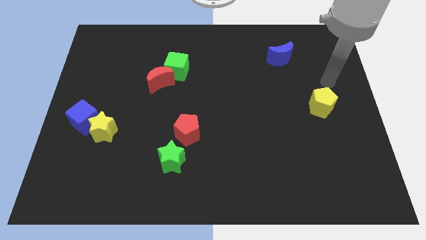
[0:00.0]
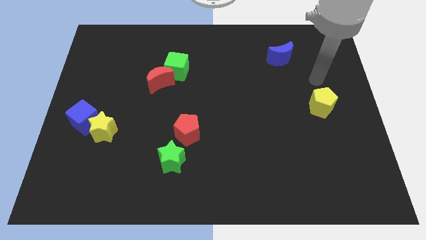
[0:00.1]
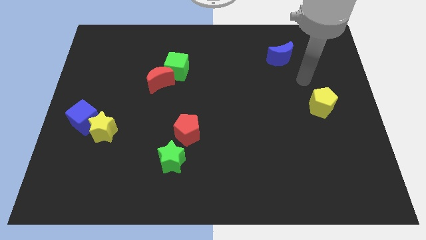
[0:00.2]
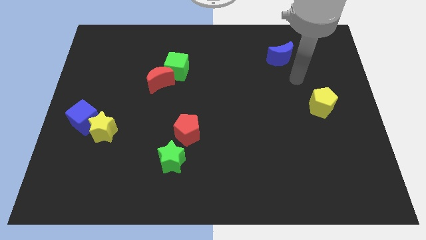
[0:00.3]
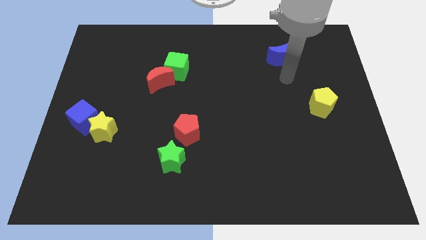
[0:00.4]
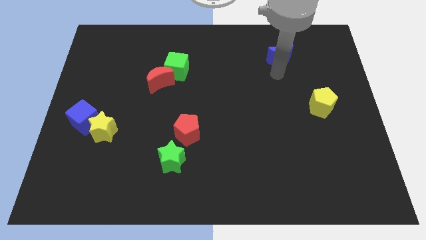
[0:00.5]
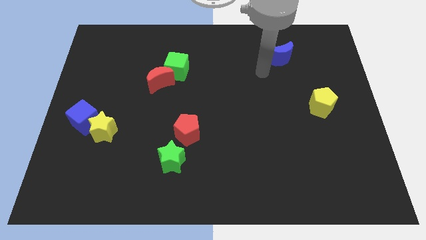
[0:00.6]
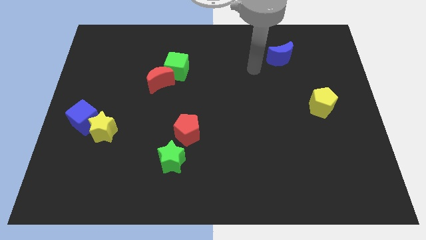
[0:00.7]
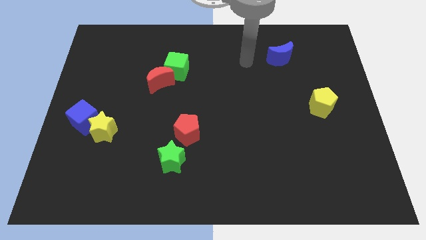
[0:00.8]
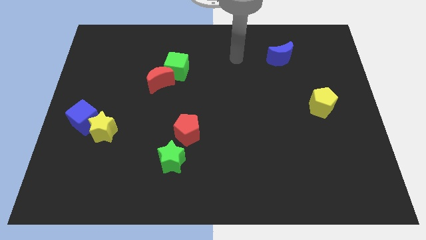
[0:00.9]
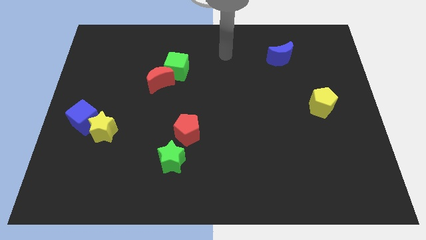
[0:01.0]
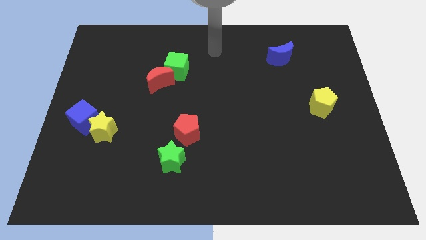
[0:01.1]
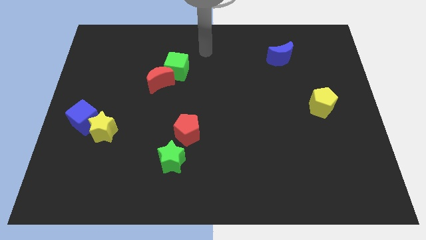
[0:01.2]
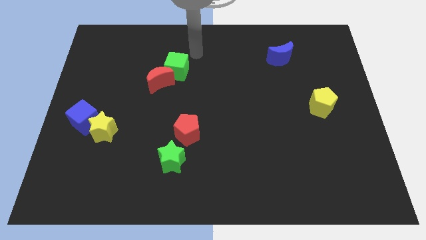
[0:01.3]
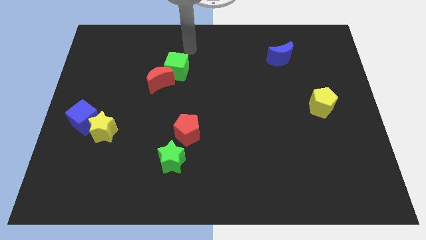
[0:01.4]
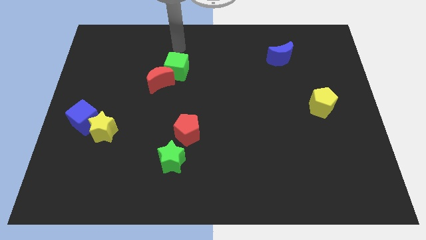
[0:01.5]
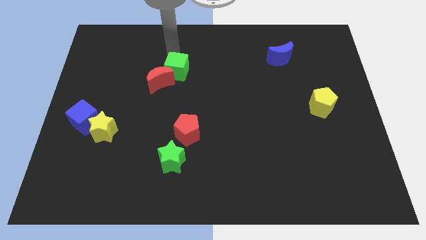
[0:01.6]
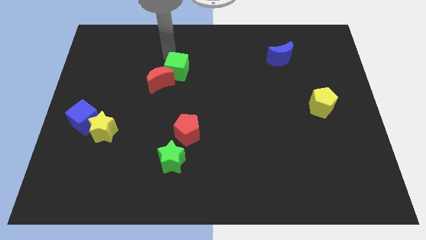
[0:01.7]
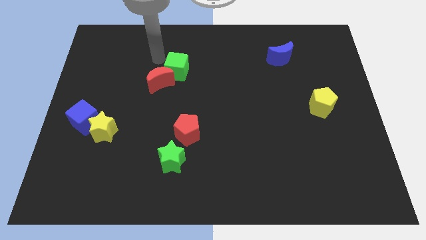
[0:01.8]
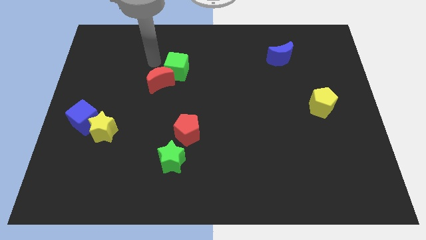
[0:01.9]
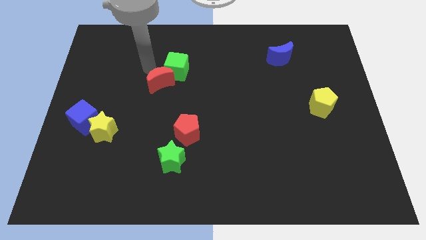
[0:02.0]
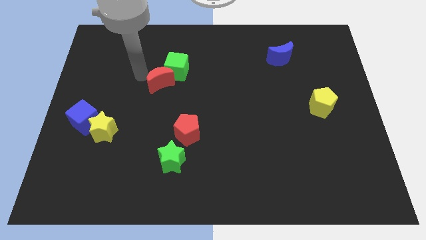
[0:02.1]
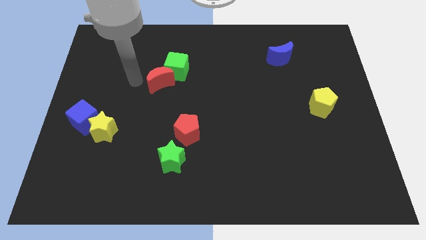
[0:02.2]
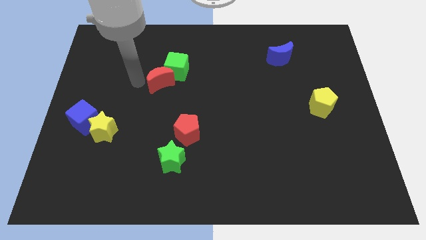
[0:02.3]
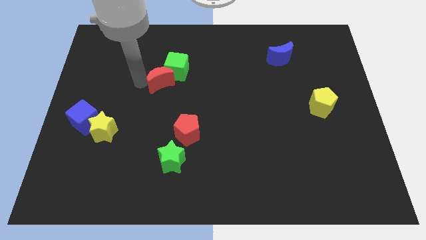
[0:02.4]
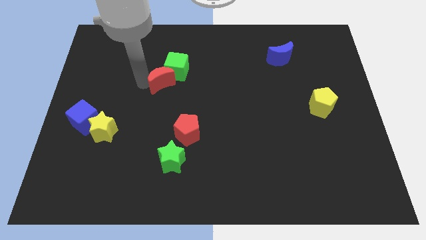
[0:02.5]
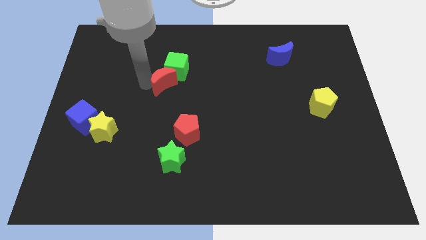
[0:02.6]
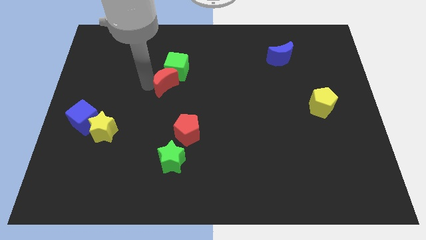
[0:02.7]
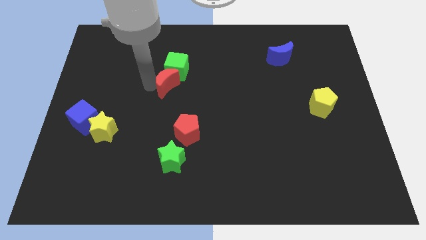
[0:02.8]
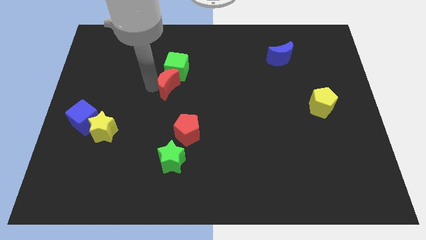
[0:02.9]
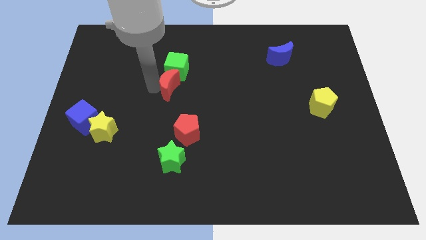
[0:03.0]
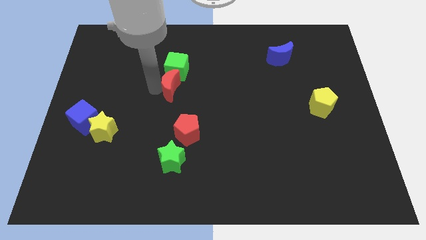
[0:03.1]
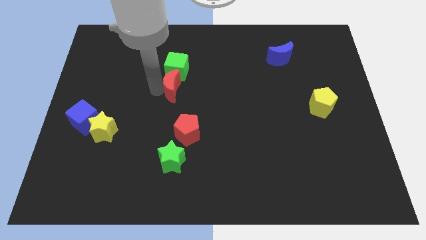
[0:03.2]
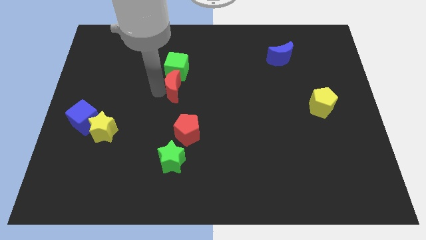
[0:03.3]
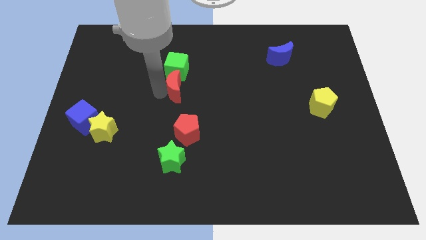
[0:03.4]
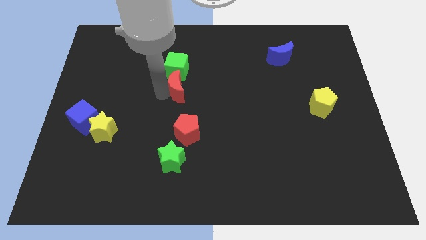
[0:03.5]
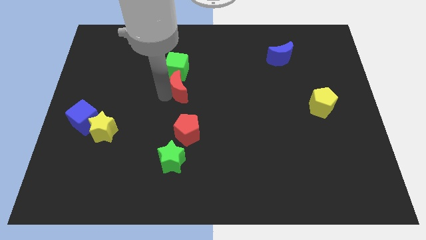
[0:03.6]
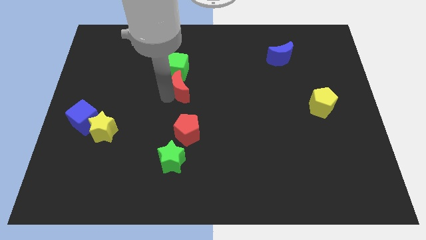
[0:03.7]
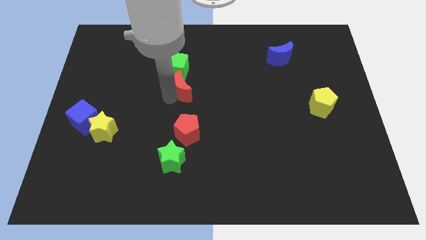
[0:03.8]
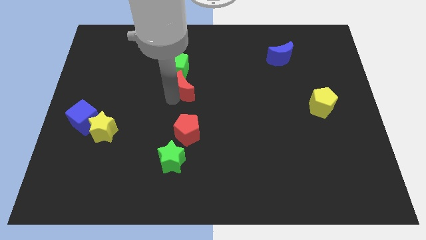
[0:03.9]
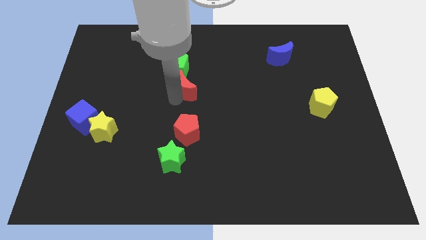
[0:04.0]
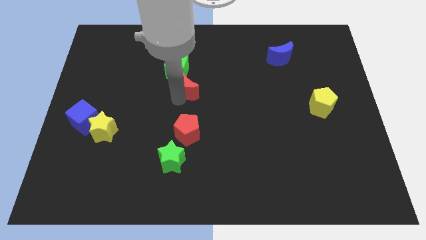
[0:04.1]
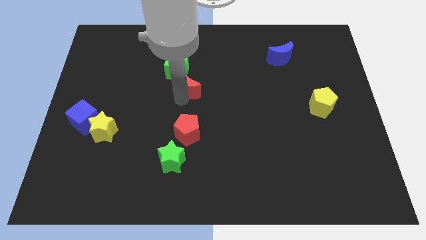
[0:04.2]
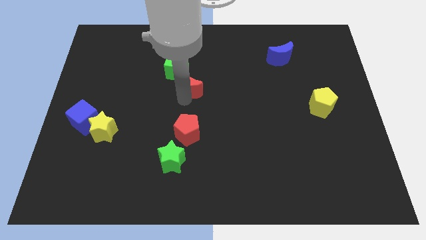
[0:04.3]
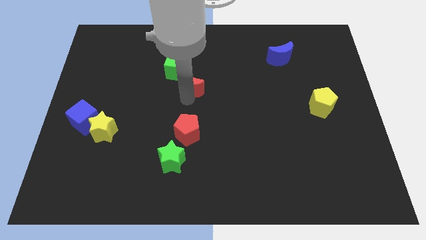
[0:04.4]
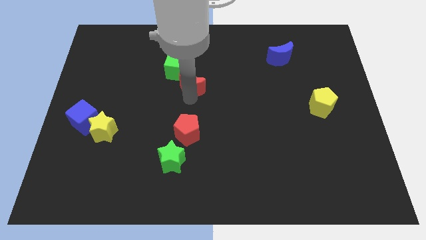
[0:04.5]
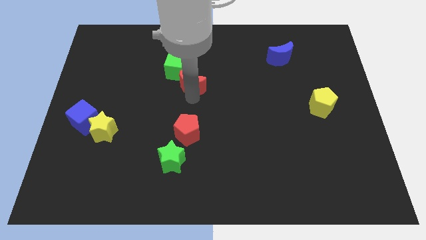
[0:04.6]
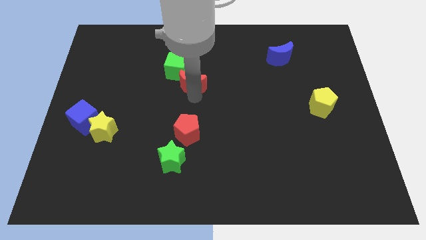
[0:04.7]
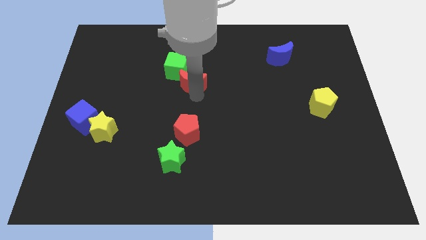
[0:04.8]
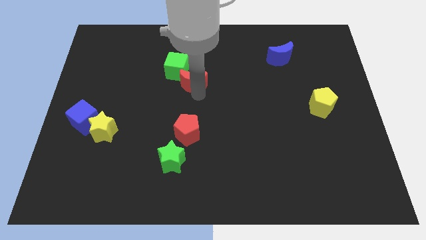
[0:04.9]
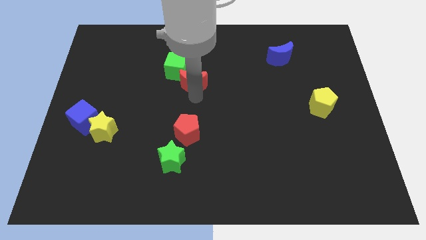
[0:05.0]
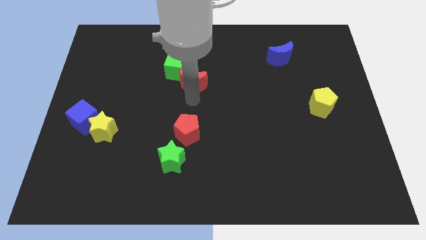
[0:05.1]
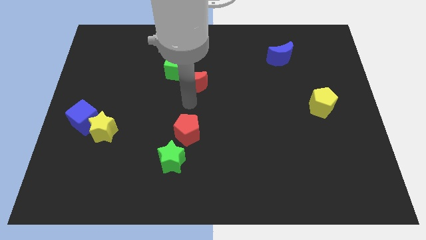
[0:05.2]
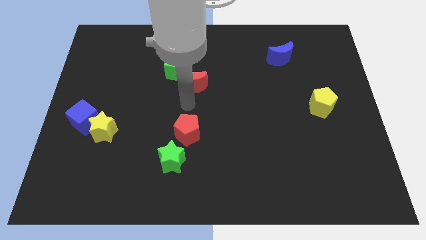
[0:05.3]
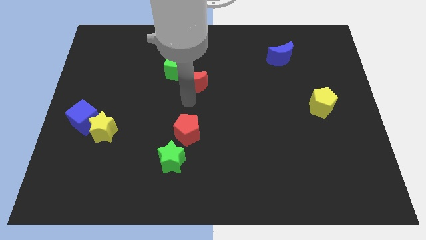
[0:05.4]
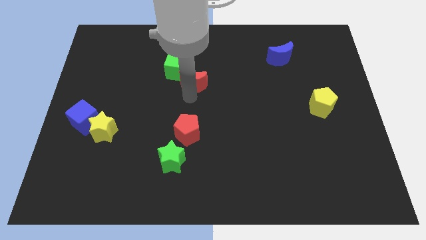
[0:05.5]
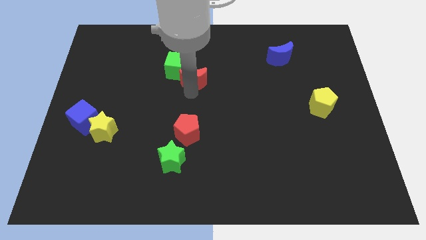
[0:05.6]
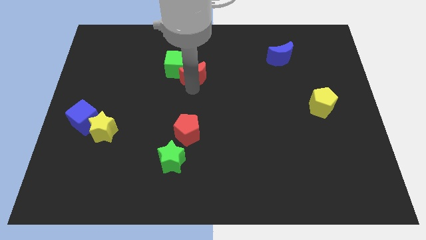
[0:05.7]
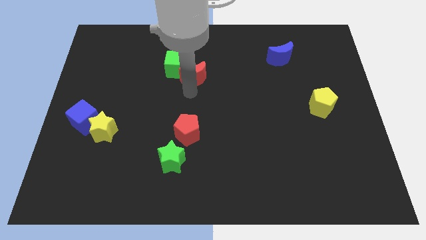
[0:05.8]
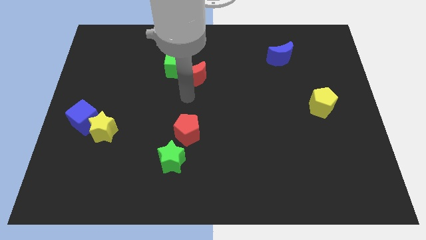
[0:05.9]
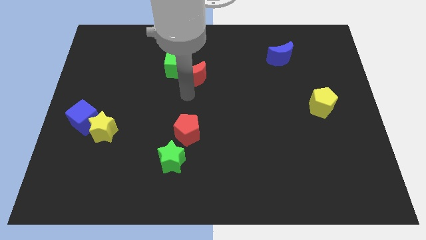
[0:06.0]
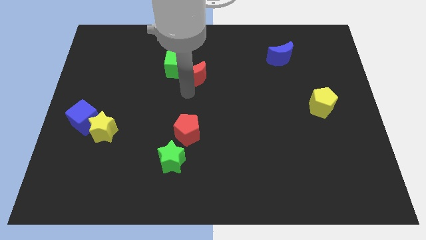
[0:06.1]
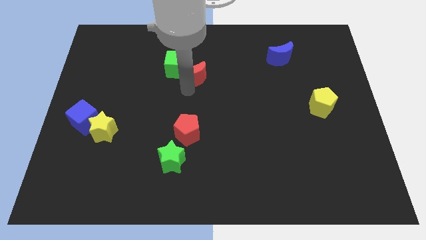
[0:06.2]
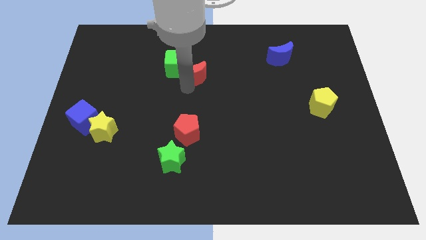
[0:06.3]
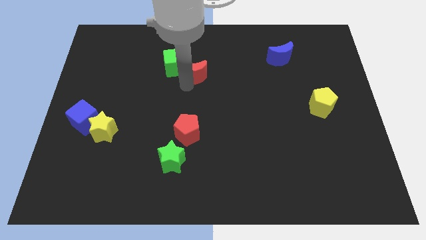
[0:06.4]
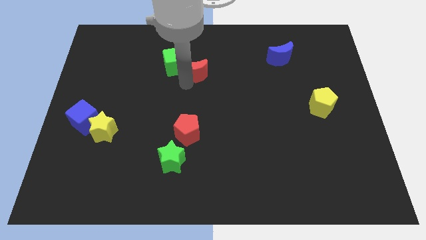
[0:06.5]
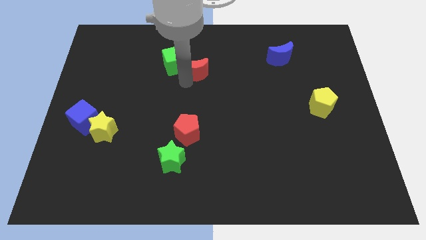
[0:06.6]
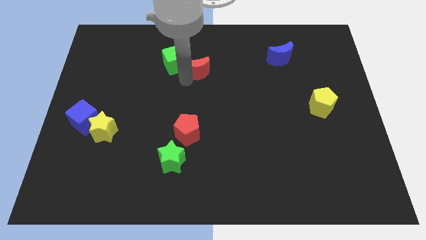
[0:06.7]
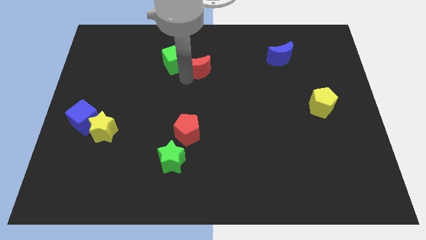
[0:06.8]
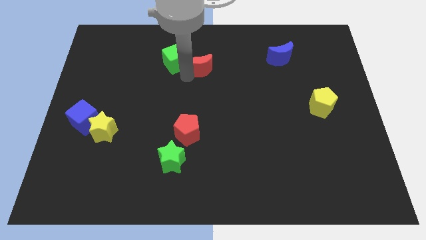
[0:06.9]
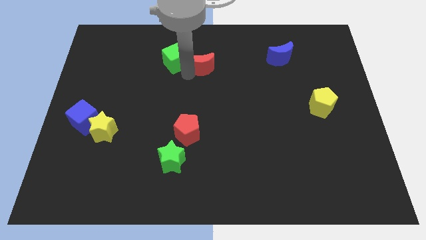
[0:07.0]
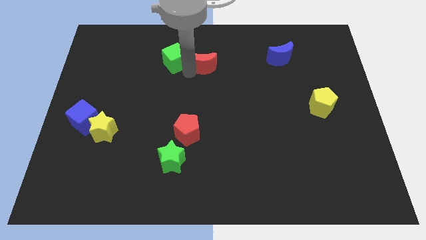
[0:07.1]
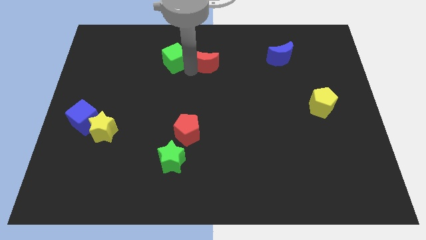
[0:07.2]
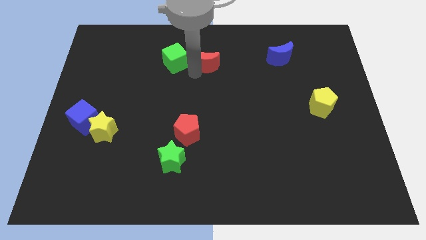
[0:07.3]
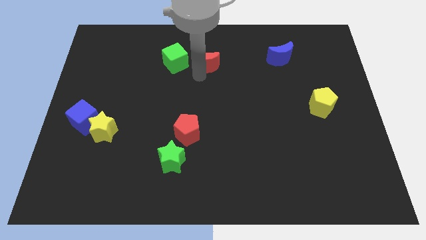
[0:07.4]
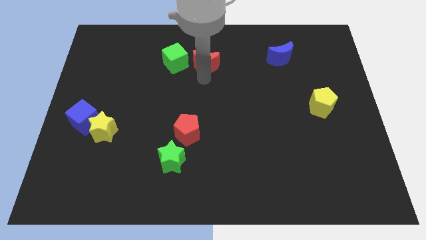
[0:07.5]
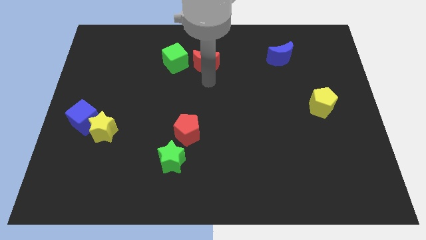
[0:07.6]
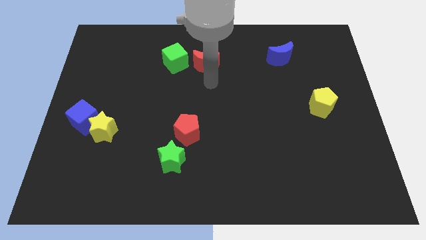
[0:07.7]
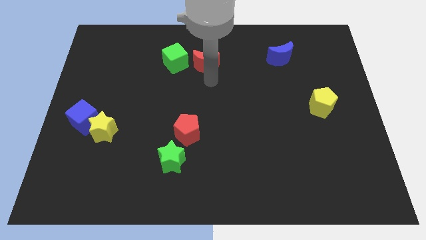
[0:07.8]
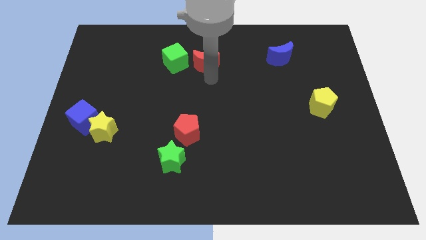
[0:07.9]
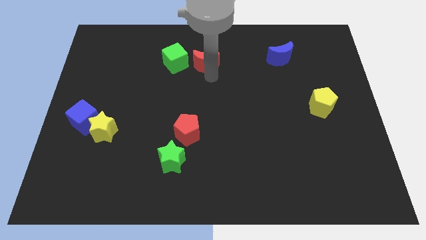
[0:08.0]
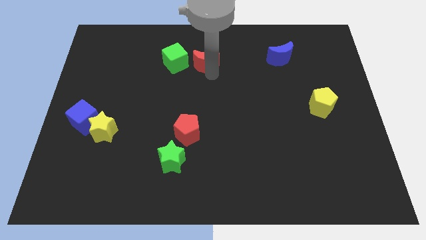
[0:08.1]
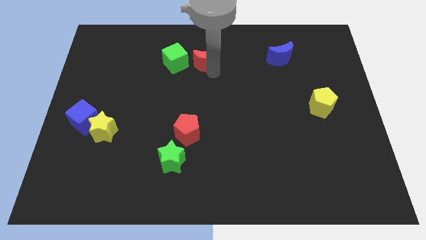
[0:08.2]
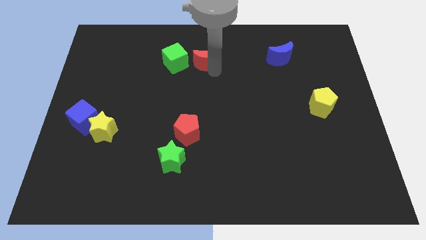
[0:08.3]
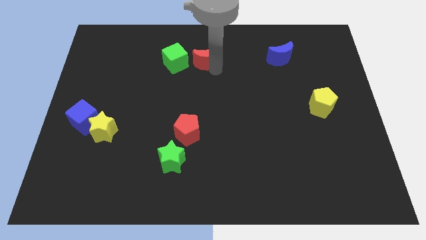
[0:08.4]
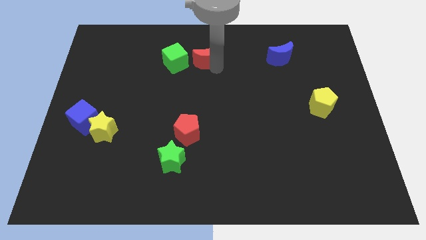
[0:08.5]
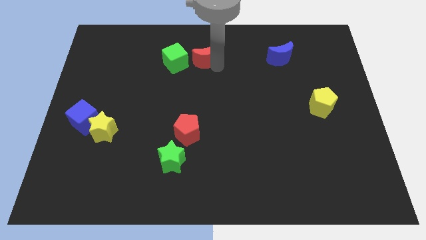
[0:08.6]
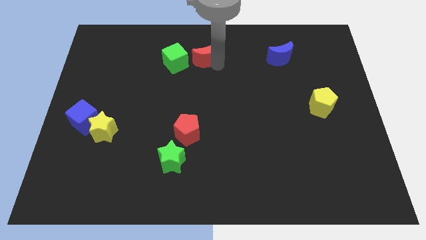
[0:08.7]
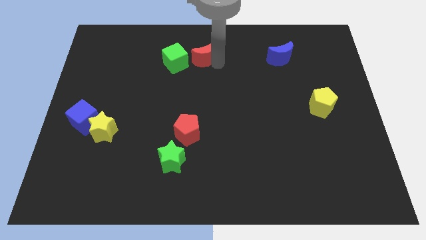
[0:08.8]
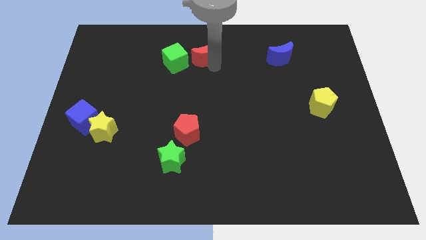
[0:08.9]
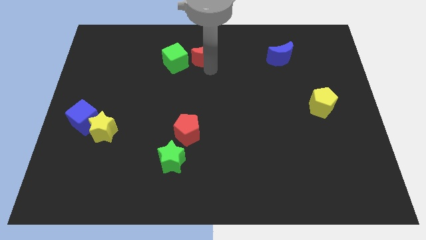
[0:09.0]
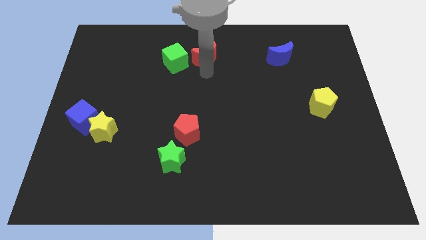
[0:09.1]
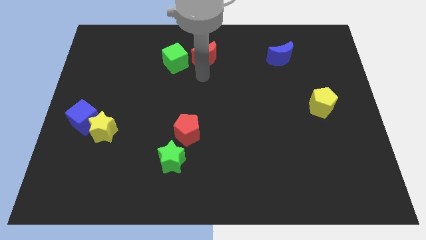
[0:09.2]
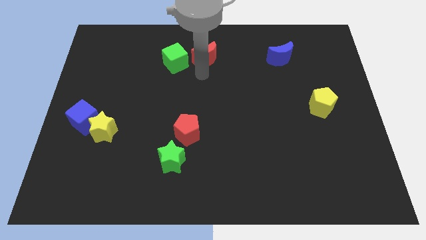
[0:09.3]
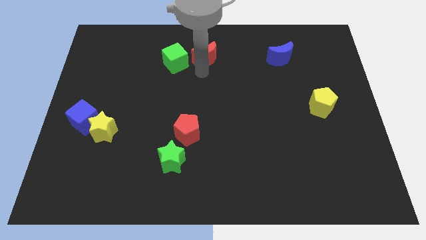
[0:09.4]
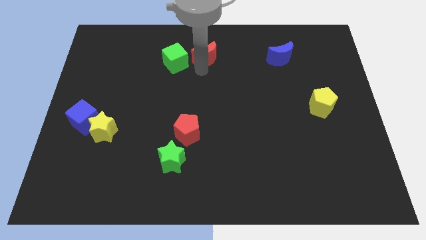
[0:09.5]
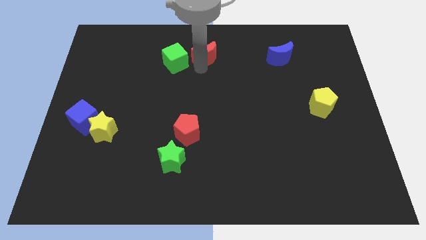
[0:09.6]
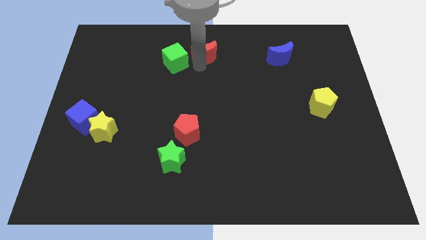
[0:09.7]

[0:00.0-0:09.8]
put the red moon to the towards your base
